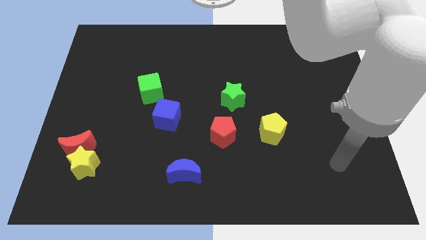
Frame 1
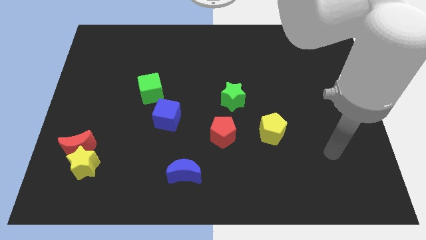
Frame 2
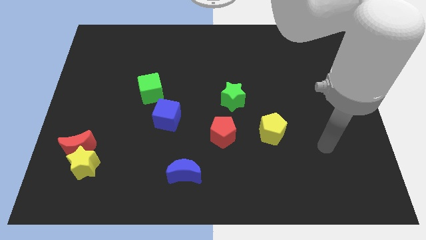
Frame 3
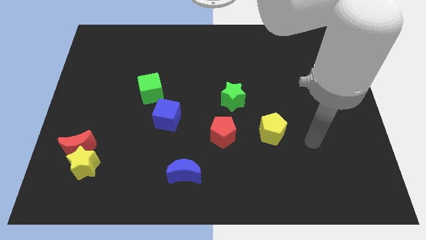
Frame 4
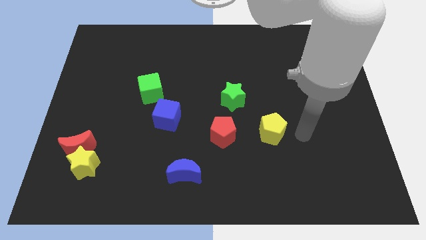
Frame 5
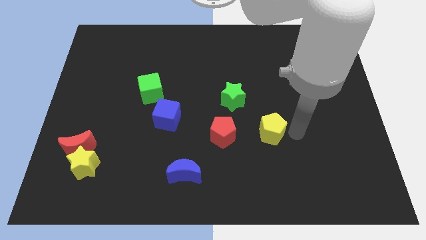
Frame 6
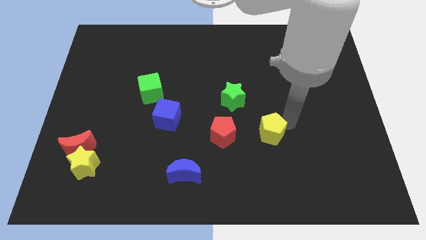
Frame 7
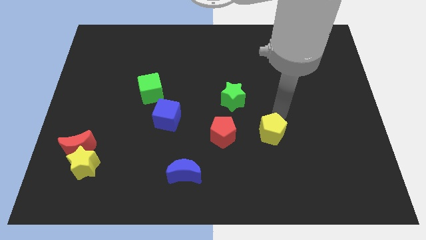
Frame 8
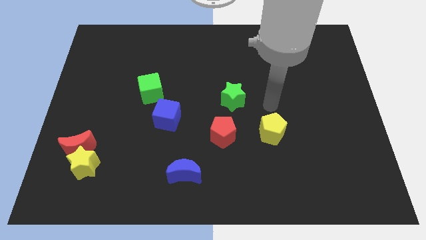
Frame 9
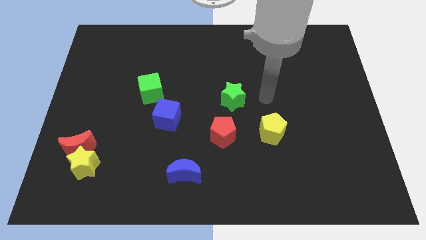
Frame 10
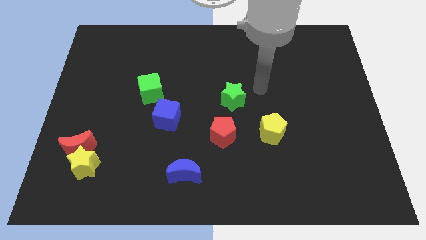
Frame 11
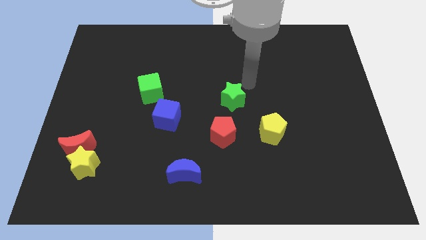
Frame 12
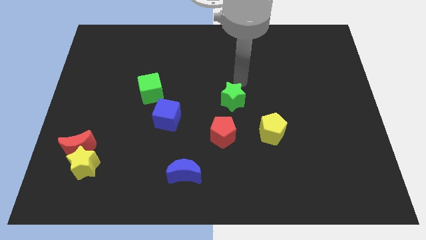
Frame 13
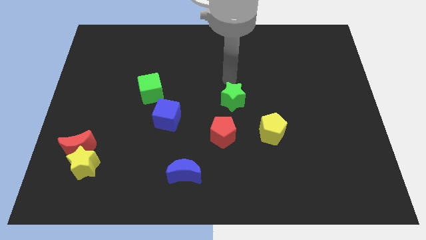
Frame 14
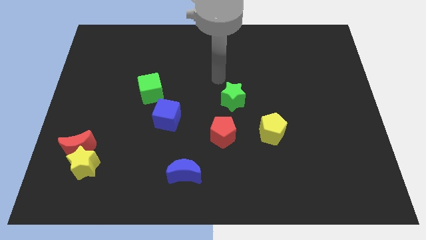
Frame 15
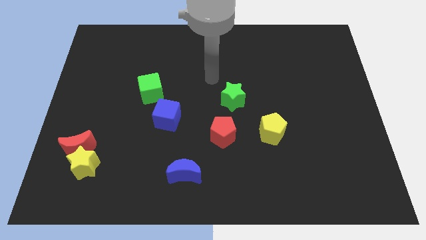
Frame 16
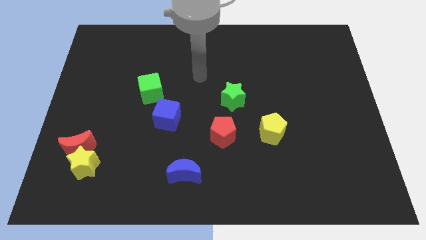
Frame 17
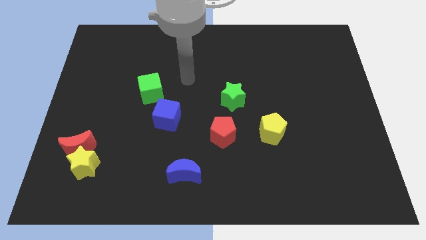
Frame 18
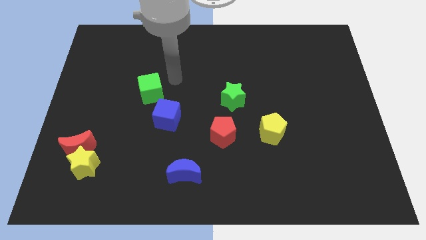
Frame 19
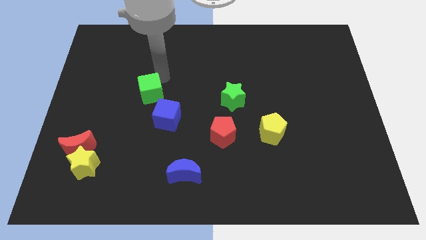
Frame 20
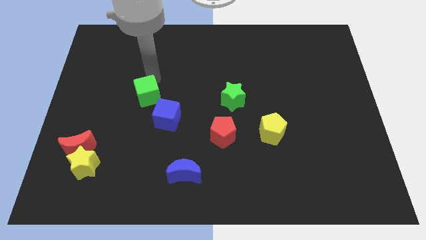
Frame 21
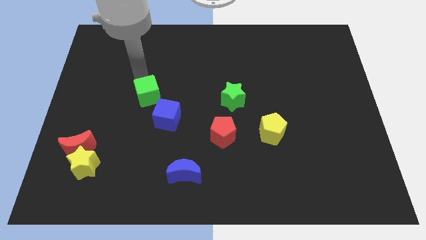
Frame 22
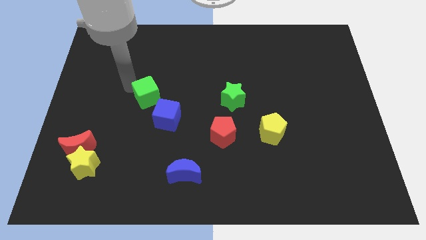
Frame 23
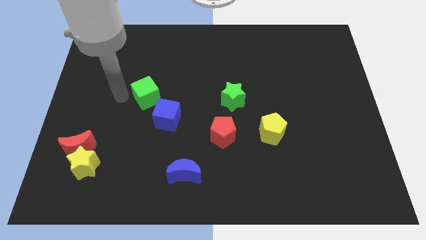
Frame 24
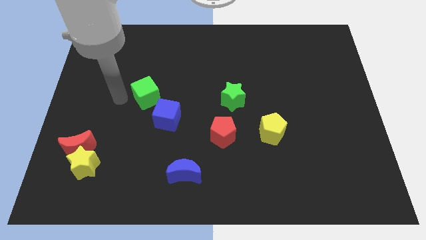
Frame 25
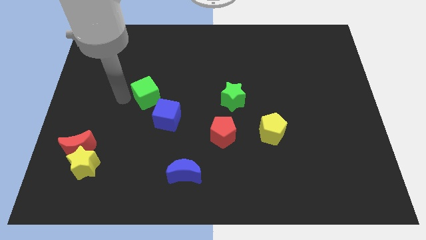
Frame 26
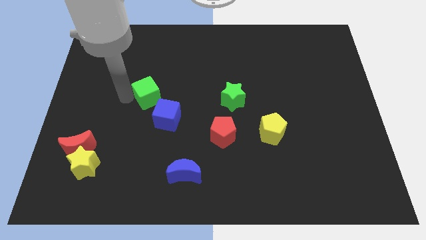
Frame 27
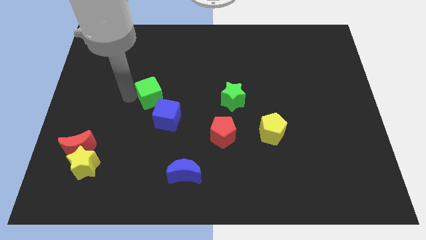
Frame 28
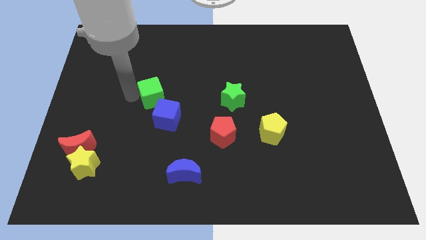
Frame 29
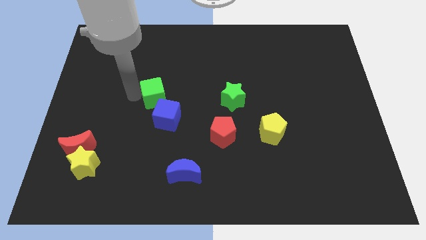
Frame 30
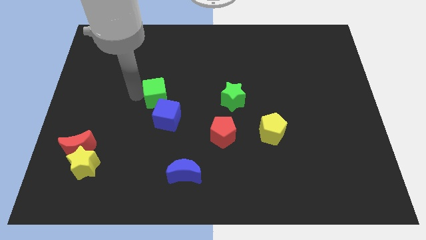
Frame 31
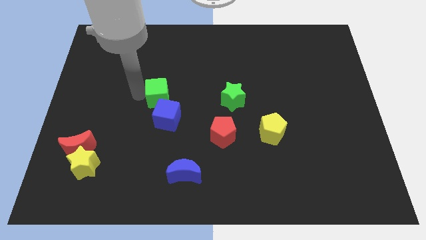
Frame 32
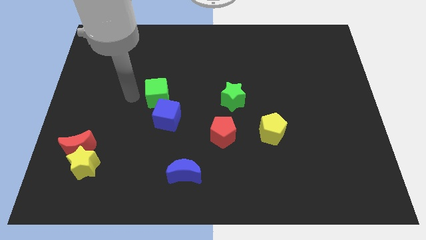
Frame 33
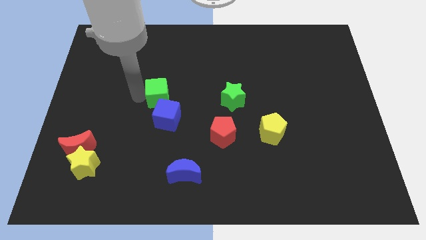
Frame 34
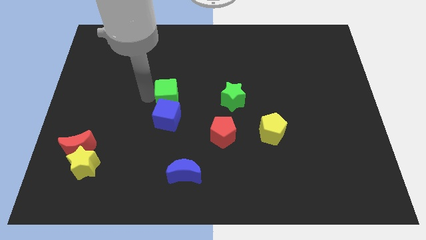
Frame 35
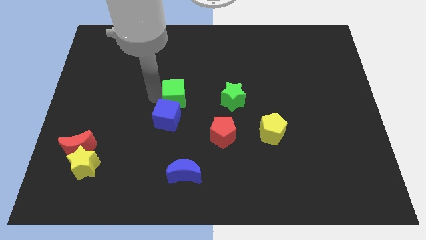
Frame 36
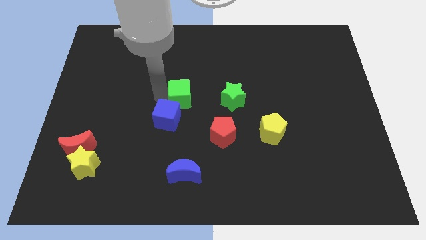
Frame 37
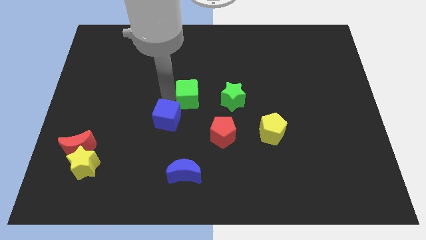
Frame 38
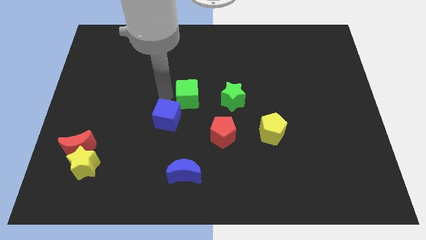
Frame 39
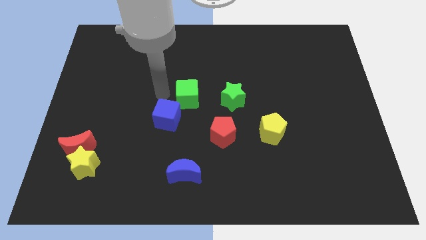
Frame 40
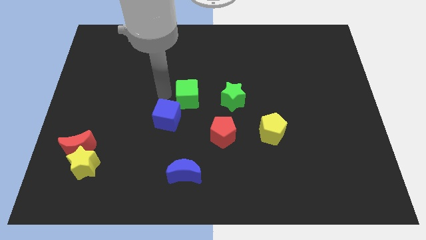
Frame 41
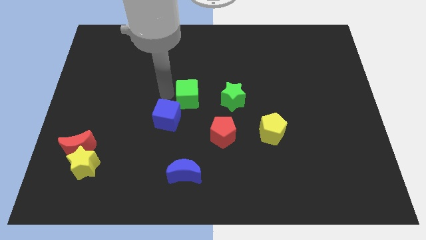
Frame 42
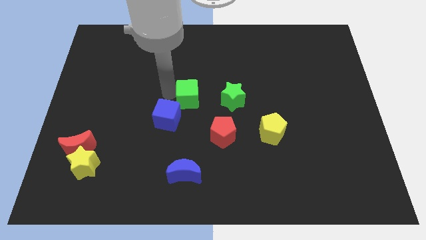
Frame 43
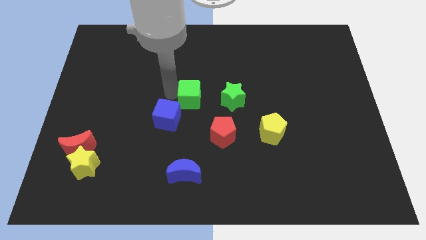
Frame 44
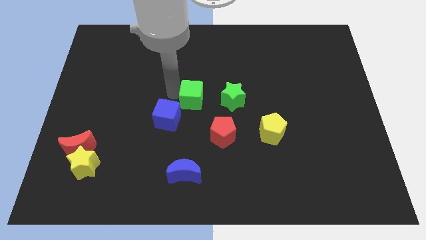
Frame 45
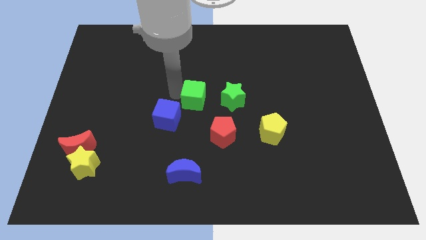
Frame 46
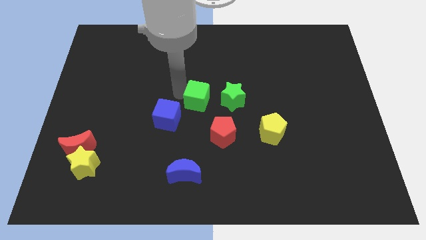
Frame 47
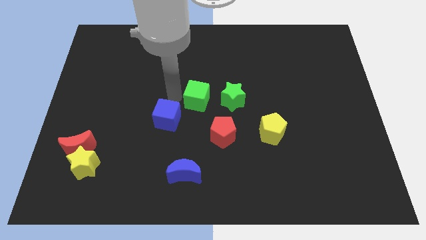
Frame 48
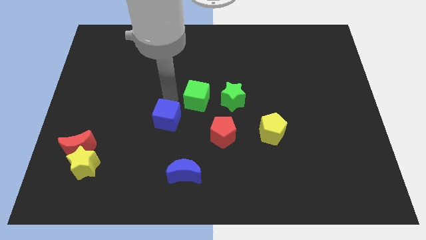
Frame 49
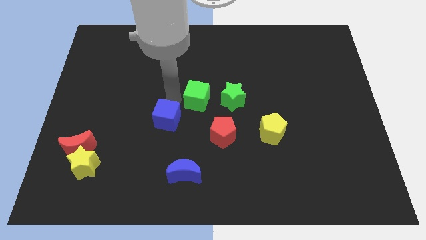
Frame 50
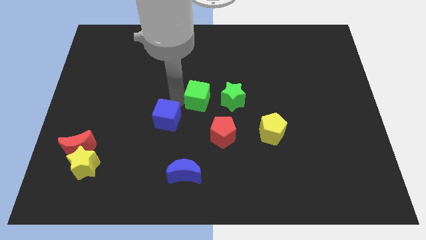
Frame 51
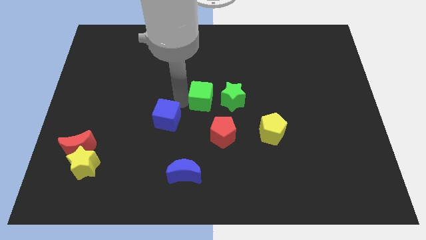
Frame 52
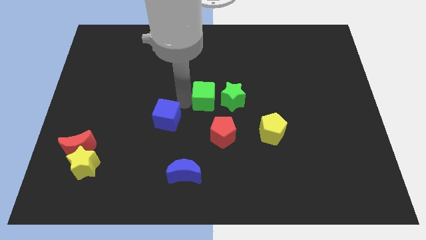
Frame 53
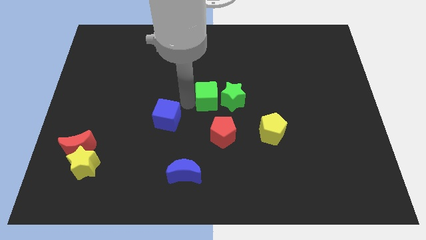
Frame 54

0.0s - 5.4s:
slide the green cube towards the green star

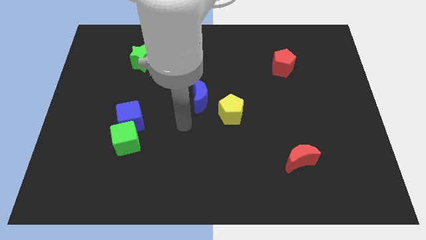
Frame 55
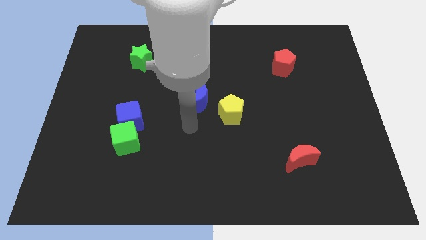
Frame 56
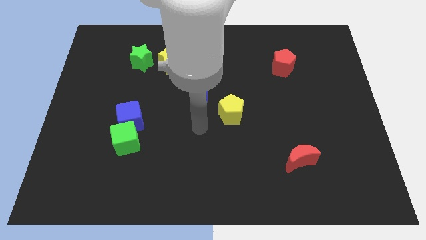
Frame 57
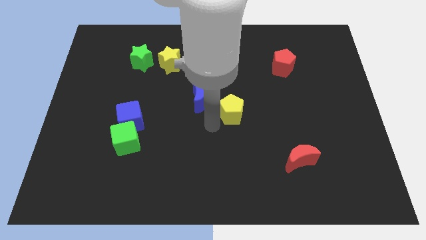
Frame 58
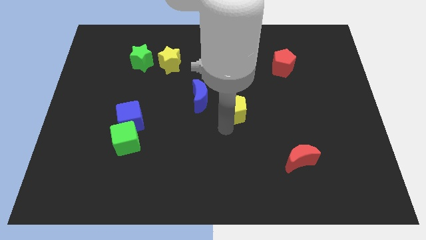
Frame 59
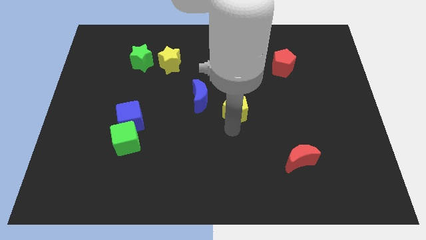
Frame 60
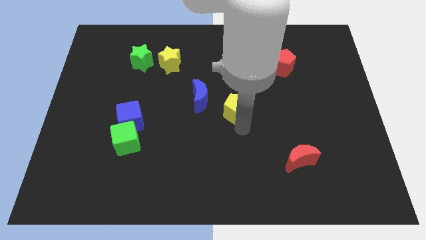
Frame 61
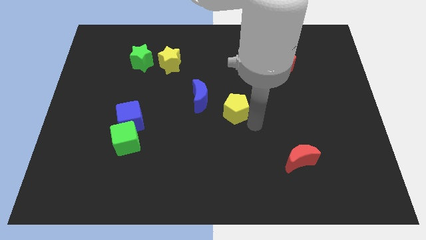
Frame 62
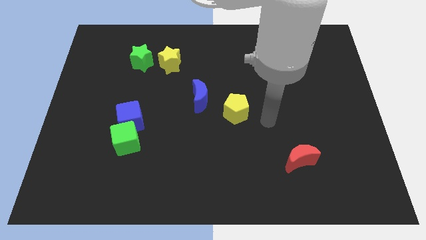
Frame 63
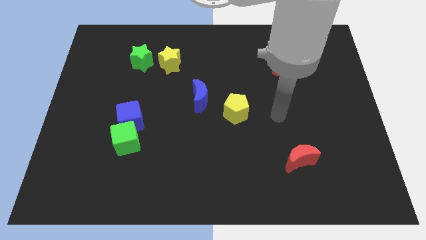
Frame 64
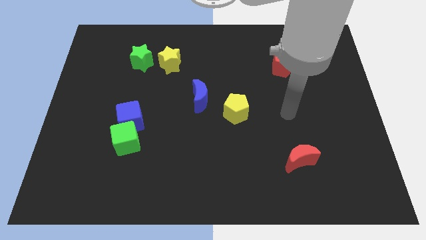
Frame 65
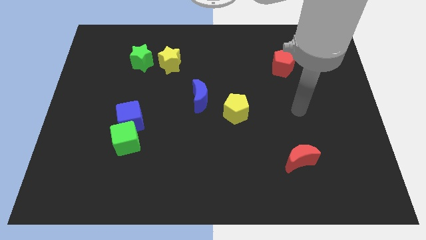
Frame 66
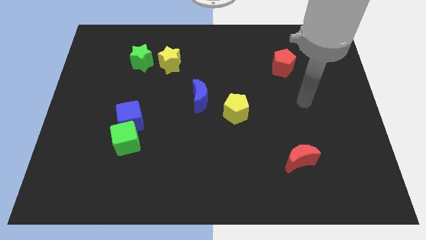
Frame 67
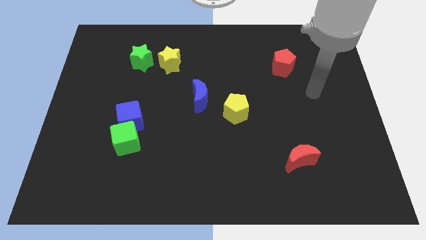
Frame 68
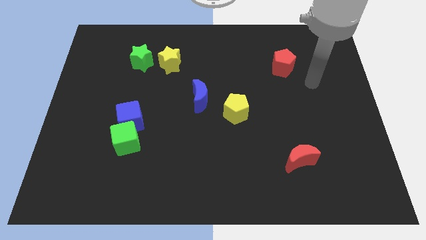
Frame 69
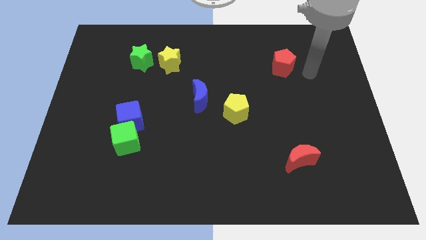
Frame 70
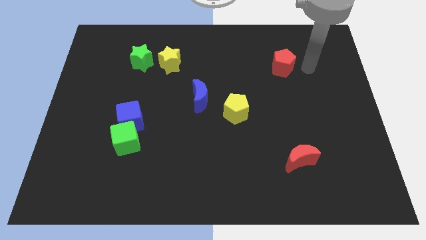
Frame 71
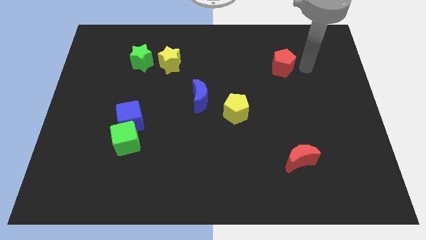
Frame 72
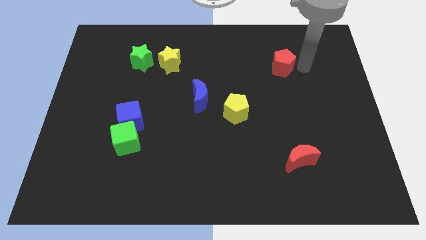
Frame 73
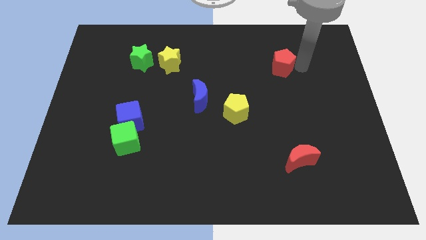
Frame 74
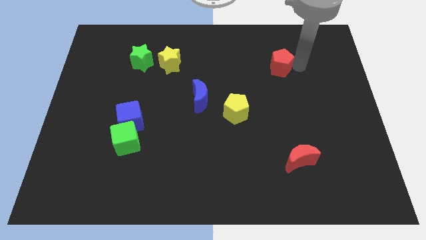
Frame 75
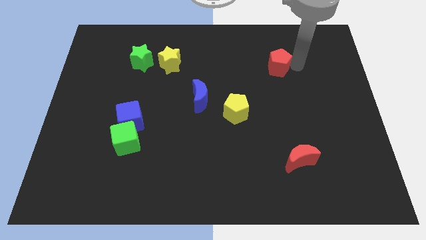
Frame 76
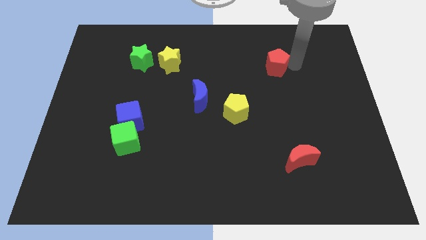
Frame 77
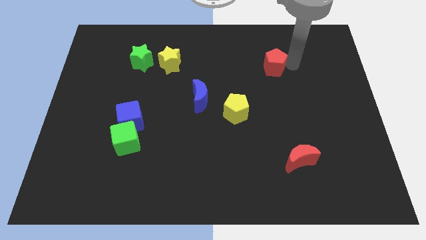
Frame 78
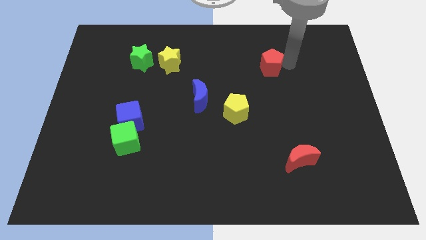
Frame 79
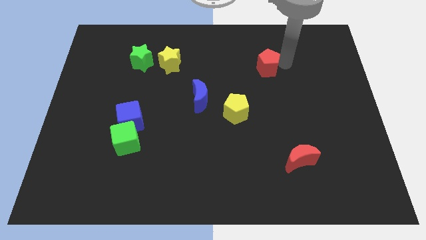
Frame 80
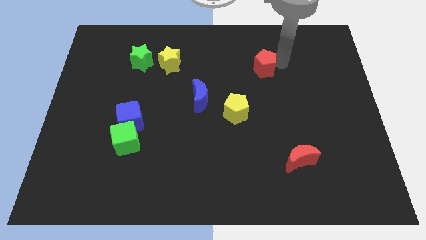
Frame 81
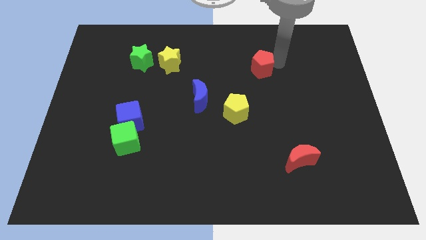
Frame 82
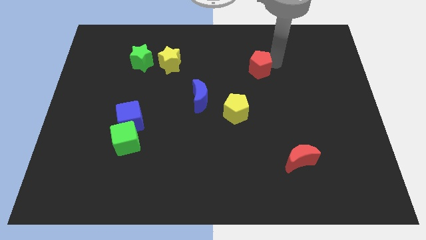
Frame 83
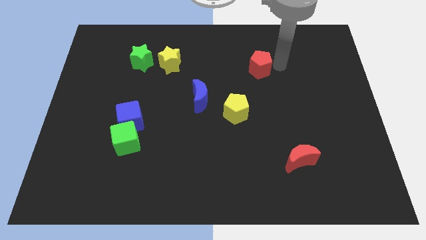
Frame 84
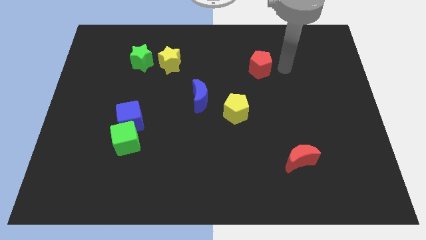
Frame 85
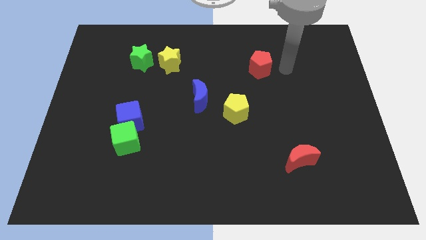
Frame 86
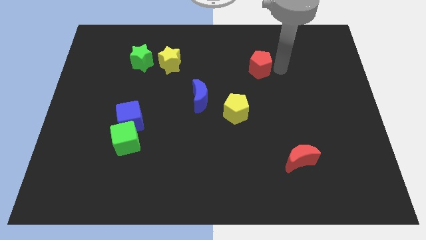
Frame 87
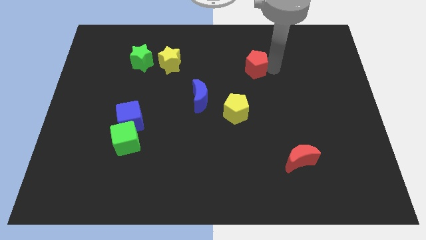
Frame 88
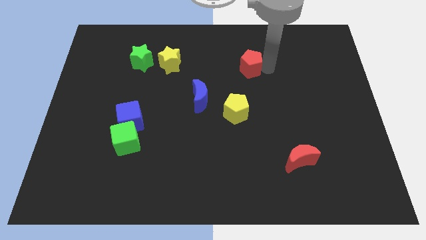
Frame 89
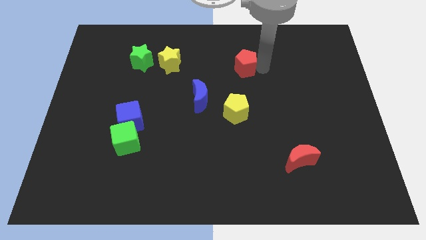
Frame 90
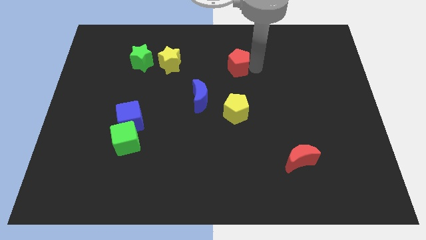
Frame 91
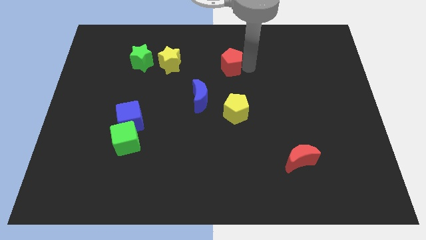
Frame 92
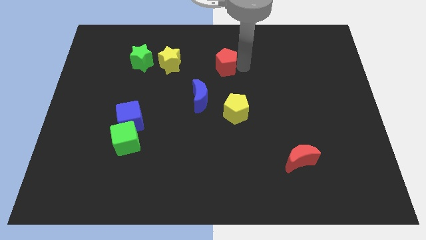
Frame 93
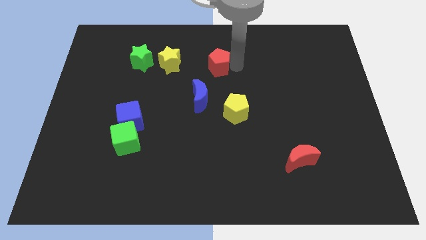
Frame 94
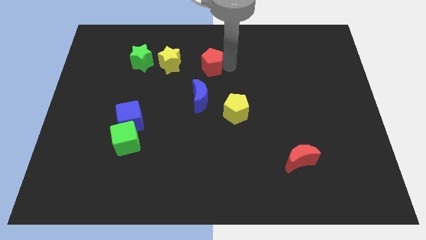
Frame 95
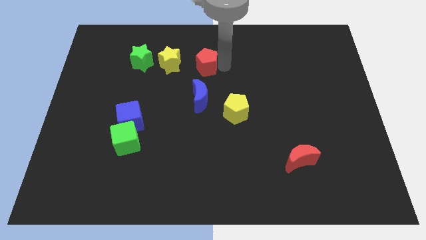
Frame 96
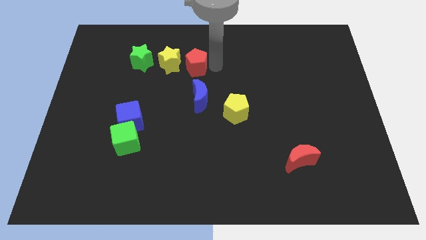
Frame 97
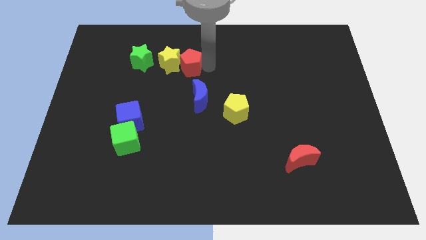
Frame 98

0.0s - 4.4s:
move the red pentagon towards the yellow star
